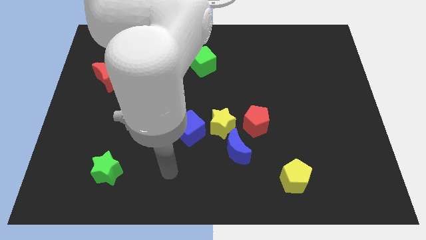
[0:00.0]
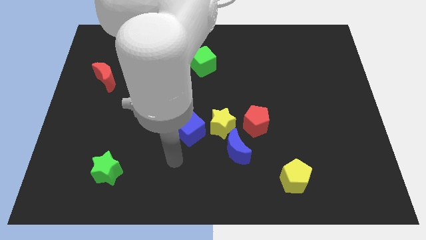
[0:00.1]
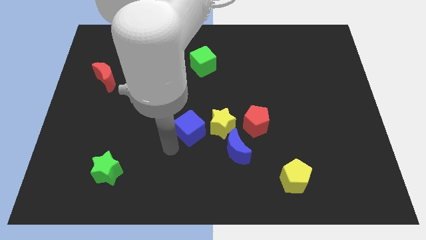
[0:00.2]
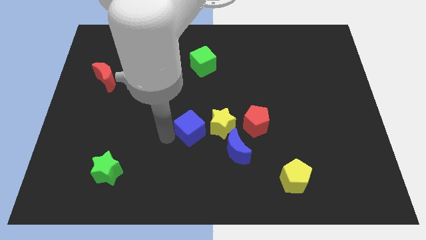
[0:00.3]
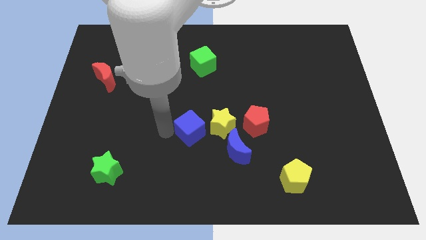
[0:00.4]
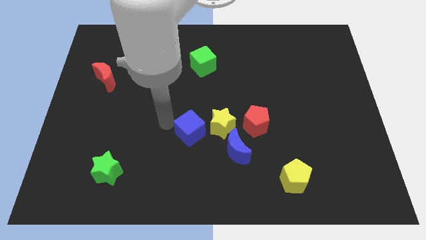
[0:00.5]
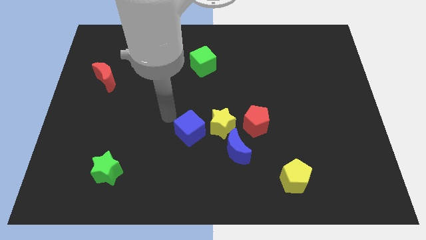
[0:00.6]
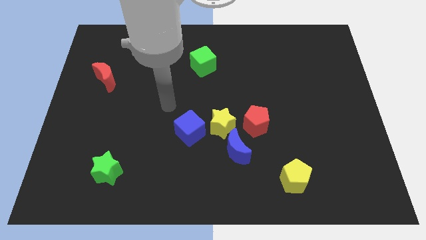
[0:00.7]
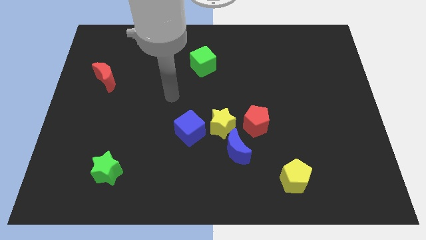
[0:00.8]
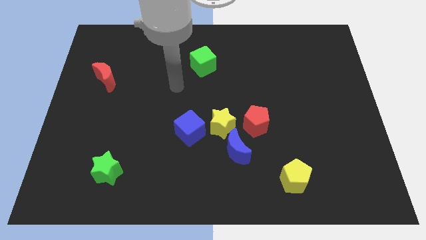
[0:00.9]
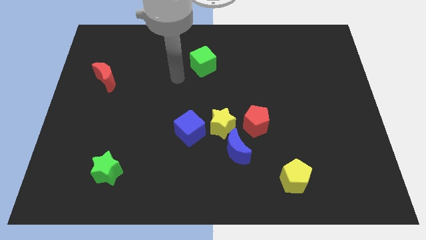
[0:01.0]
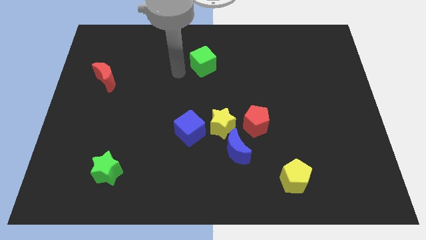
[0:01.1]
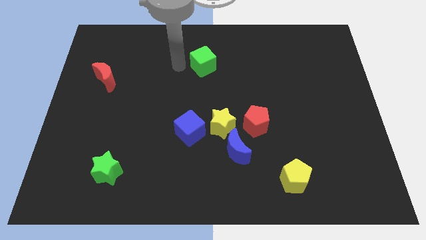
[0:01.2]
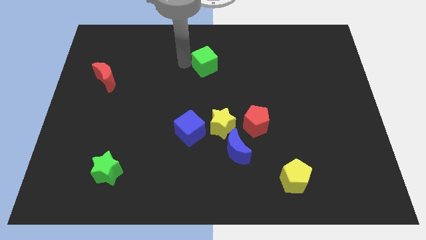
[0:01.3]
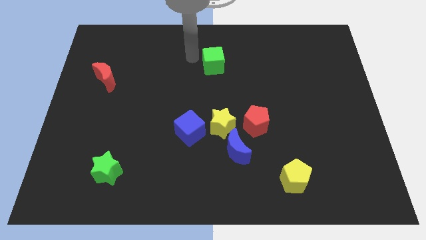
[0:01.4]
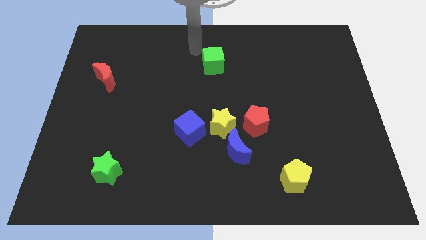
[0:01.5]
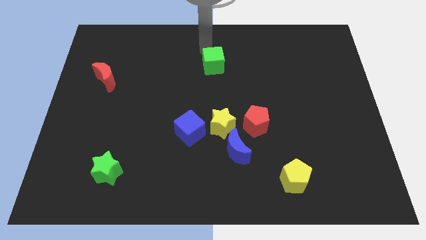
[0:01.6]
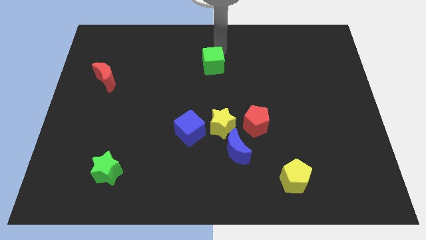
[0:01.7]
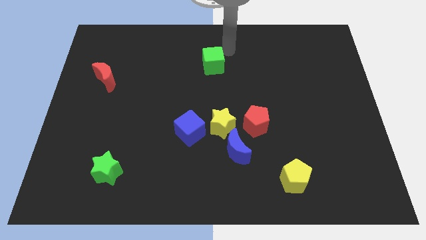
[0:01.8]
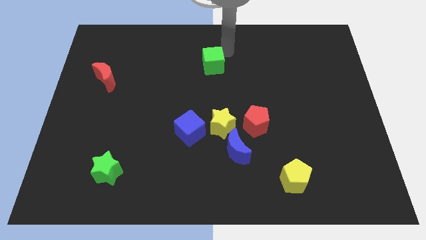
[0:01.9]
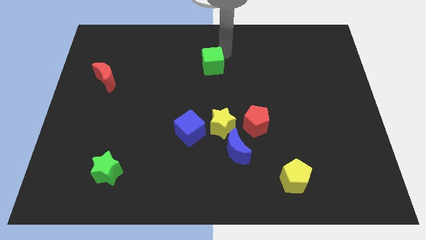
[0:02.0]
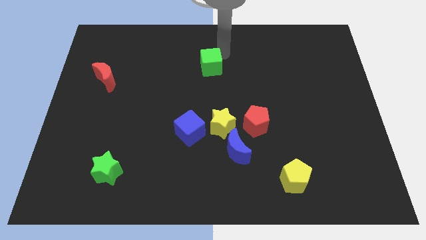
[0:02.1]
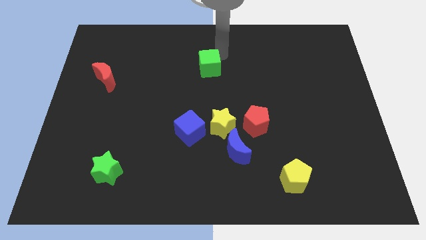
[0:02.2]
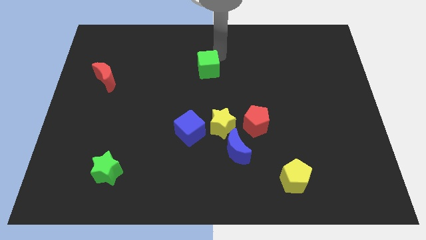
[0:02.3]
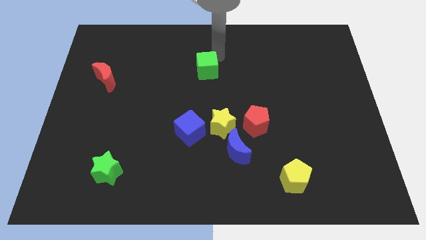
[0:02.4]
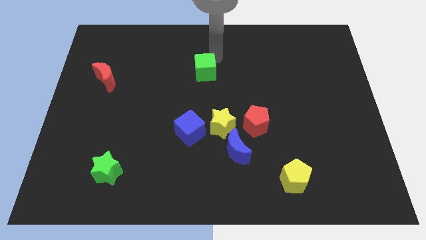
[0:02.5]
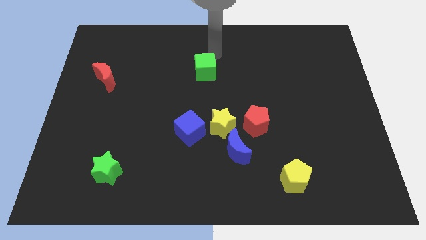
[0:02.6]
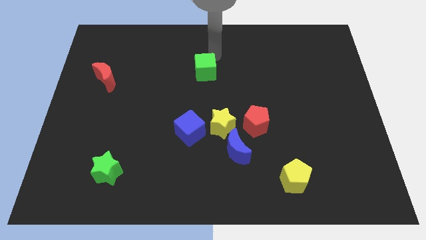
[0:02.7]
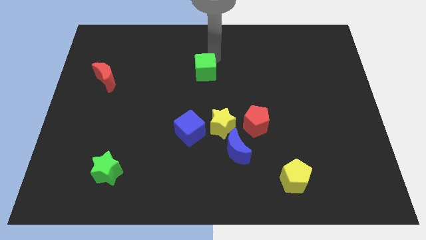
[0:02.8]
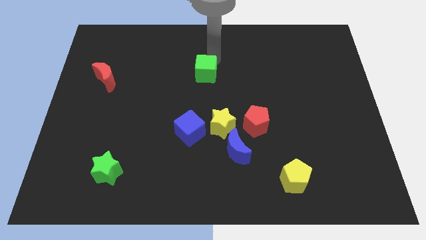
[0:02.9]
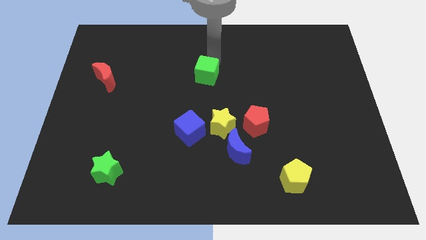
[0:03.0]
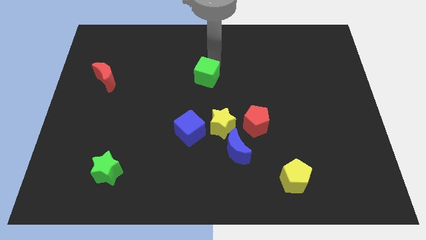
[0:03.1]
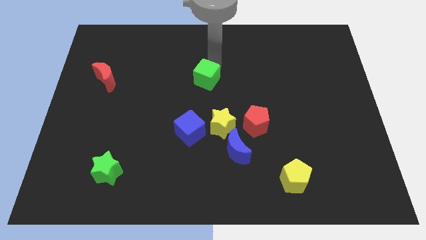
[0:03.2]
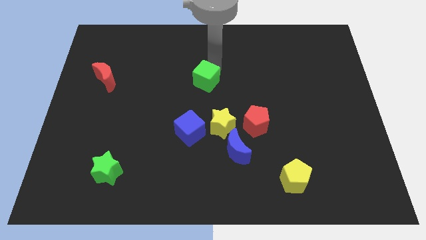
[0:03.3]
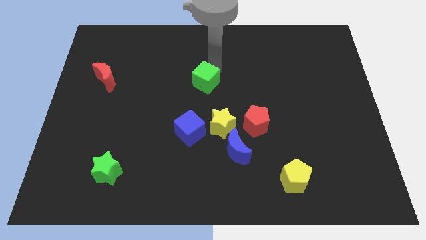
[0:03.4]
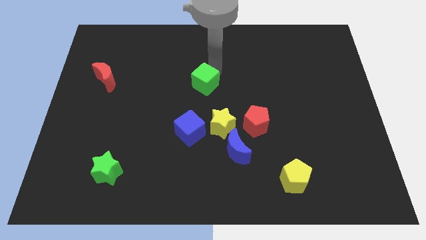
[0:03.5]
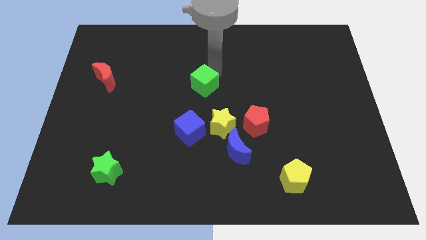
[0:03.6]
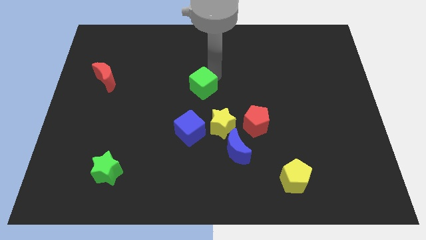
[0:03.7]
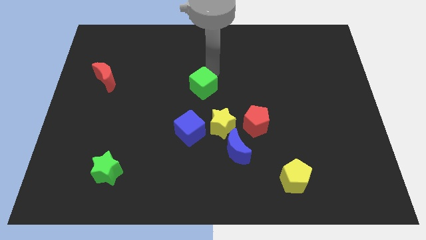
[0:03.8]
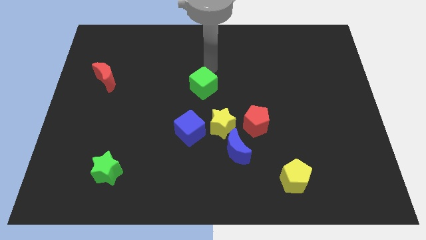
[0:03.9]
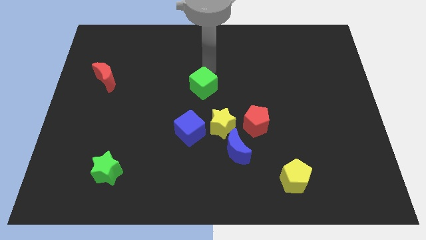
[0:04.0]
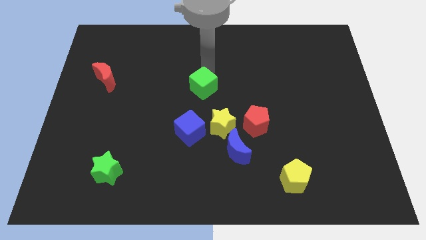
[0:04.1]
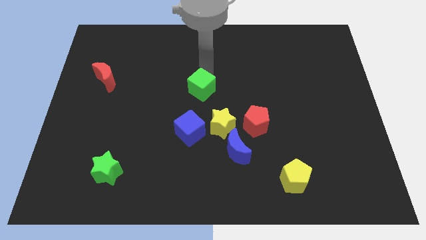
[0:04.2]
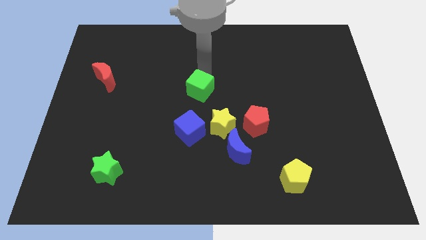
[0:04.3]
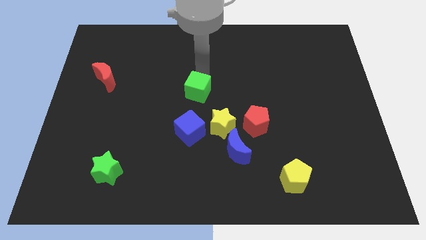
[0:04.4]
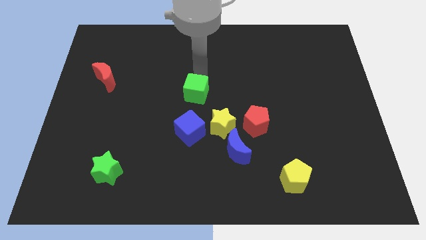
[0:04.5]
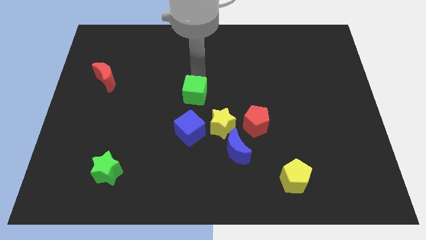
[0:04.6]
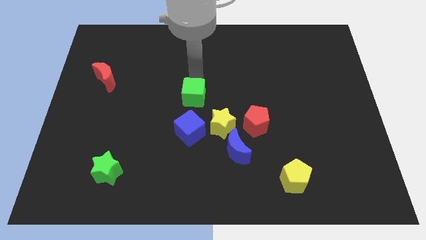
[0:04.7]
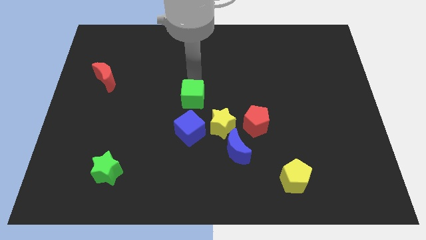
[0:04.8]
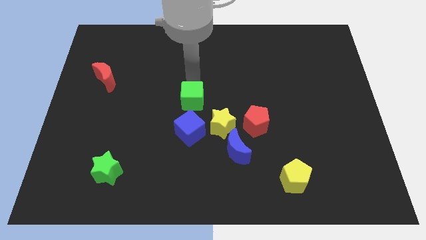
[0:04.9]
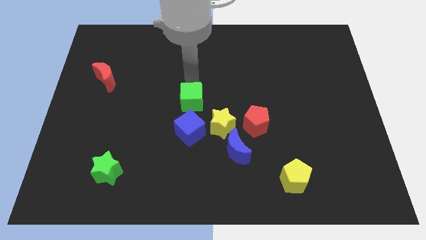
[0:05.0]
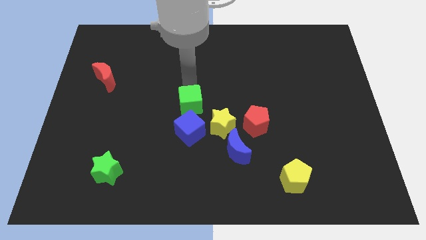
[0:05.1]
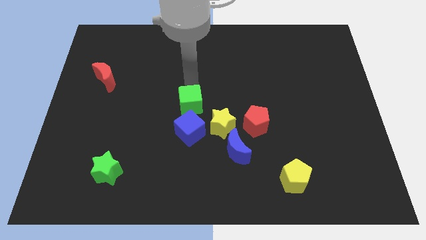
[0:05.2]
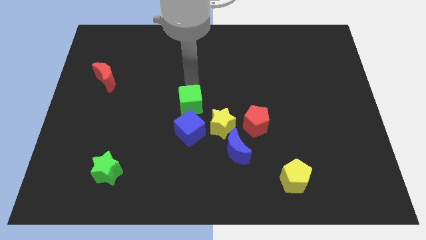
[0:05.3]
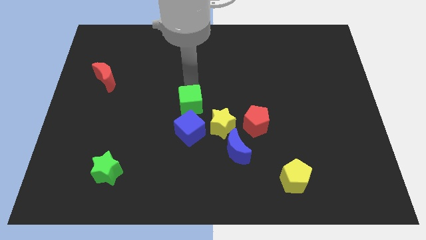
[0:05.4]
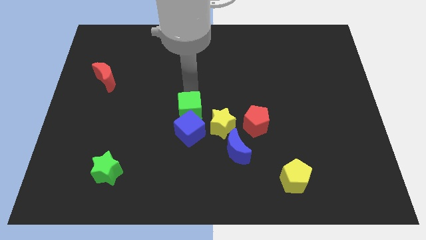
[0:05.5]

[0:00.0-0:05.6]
move the green cube to the blue cube

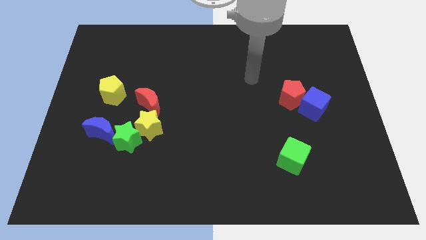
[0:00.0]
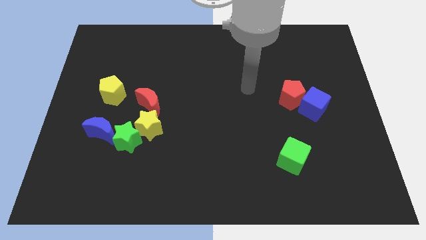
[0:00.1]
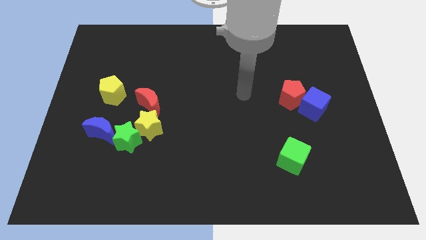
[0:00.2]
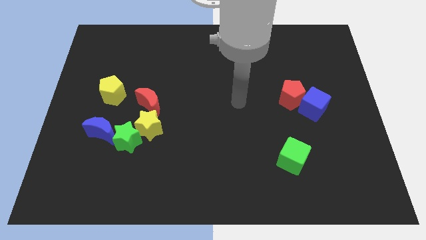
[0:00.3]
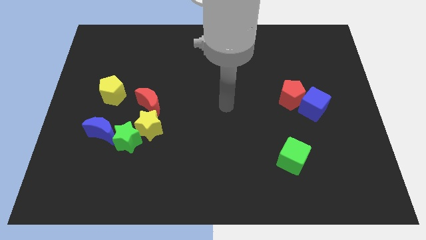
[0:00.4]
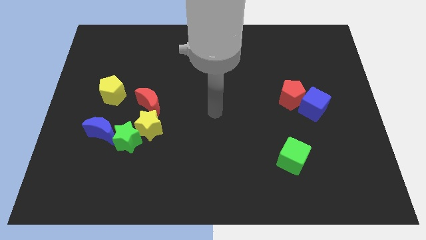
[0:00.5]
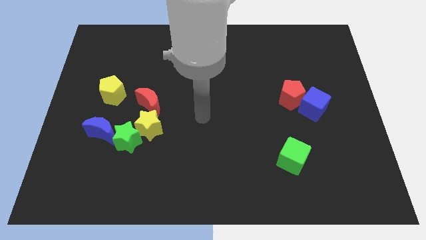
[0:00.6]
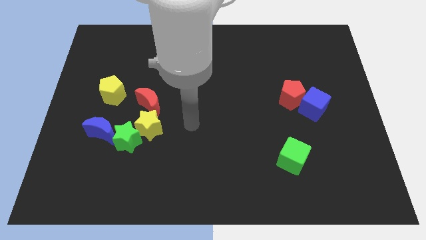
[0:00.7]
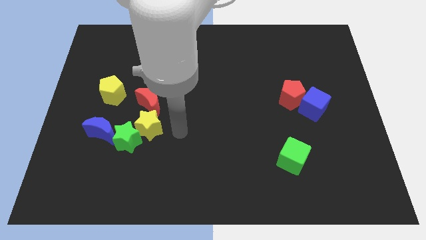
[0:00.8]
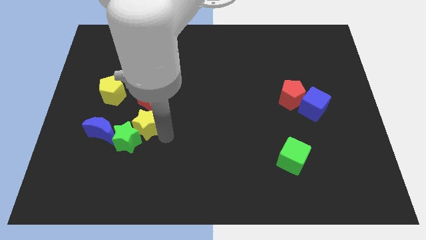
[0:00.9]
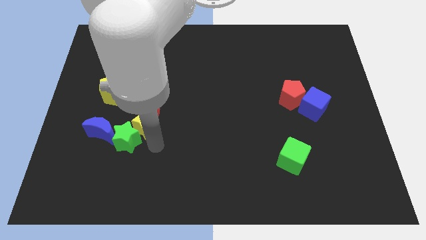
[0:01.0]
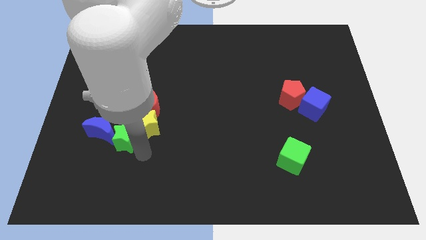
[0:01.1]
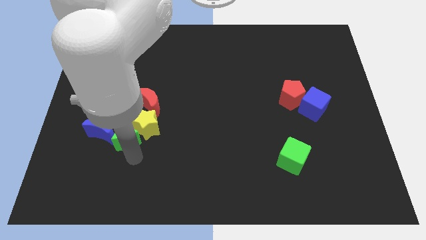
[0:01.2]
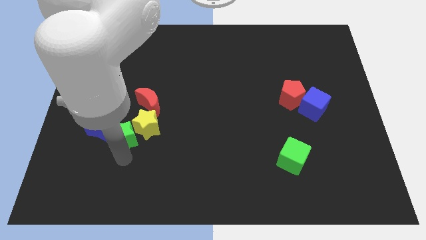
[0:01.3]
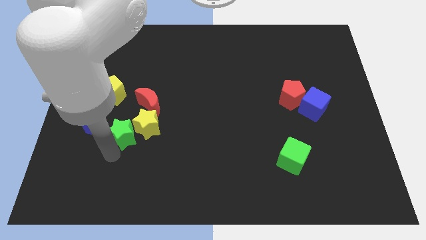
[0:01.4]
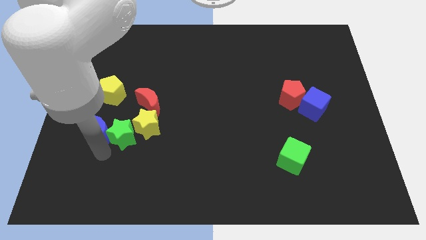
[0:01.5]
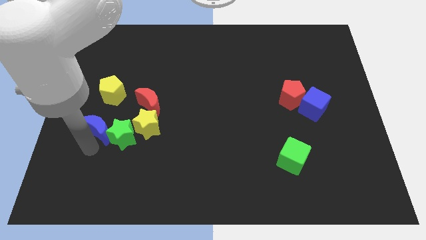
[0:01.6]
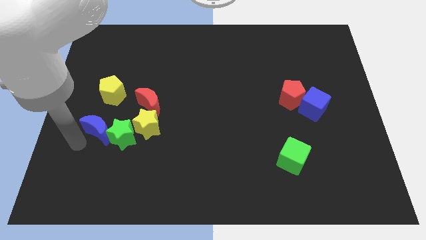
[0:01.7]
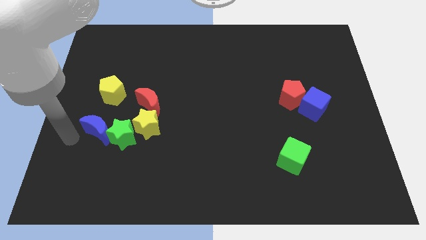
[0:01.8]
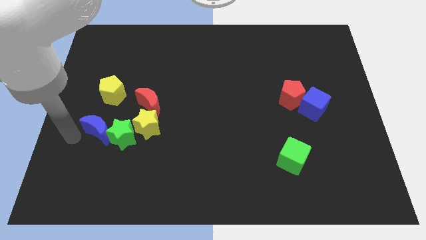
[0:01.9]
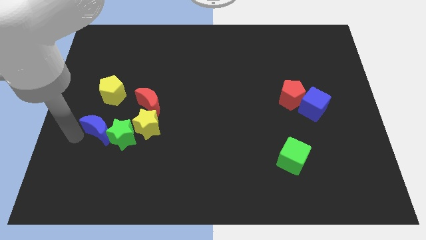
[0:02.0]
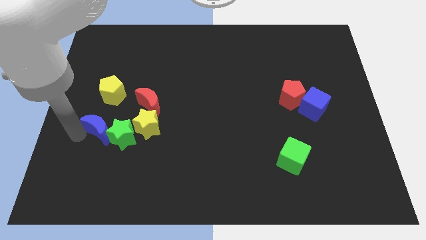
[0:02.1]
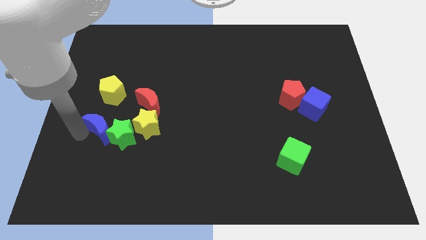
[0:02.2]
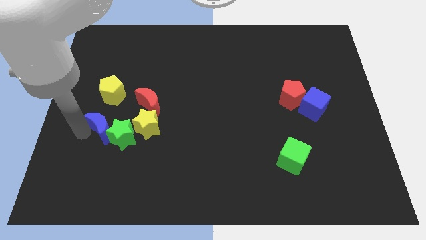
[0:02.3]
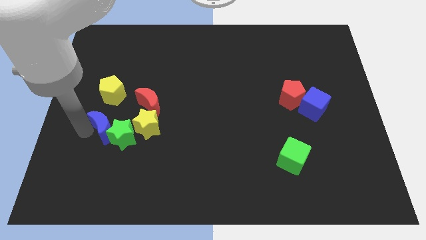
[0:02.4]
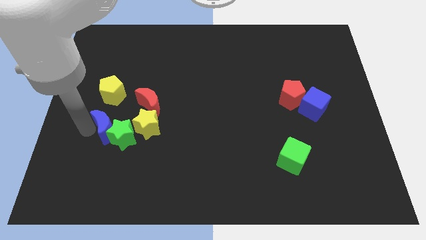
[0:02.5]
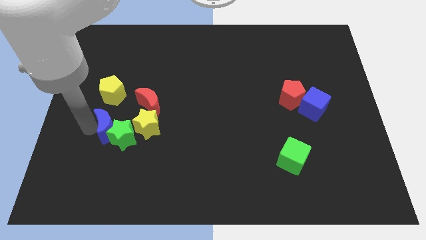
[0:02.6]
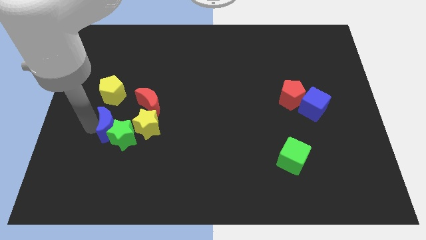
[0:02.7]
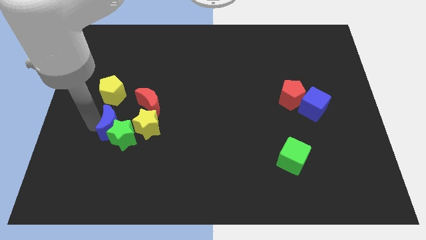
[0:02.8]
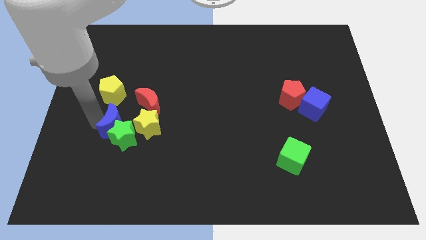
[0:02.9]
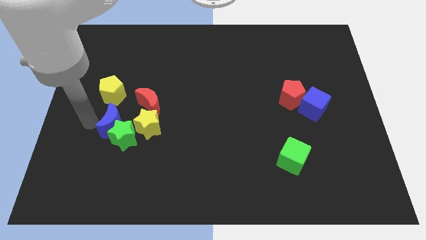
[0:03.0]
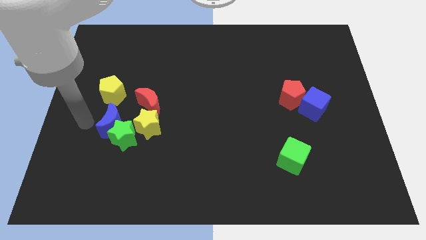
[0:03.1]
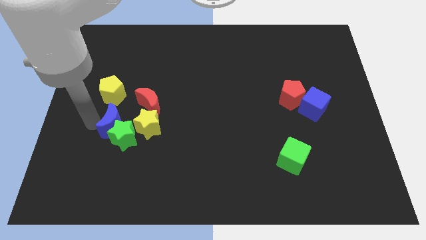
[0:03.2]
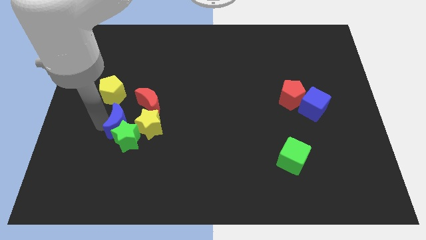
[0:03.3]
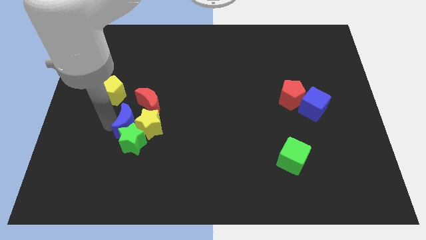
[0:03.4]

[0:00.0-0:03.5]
push the blue moon close to the yellow star
